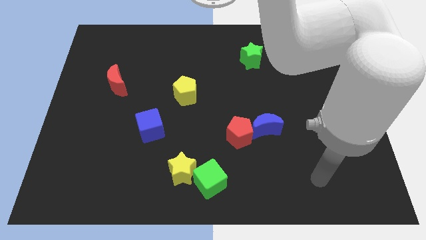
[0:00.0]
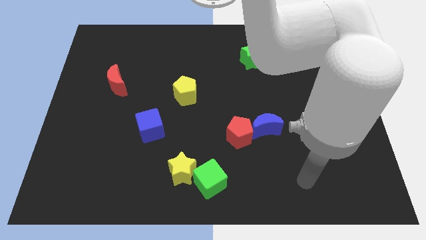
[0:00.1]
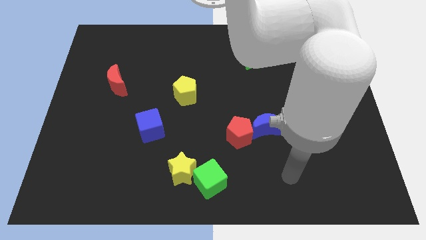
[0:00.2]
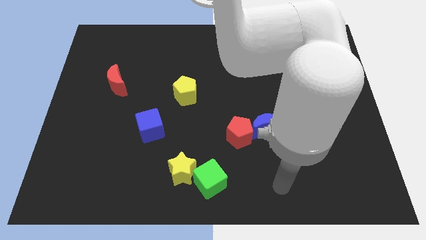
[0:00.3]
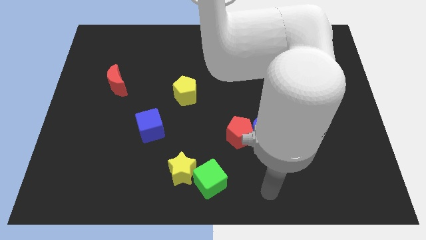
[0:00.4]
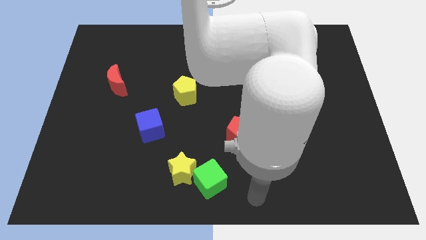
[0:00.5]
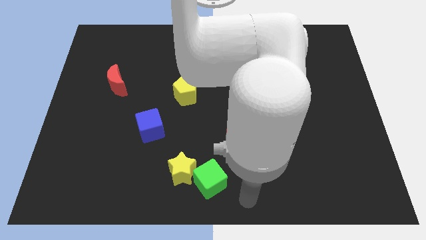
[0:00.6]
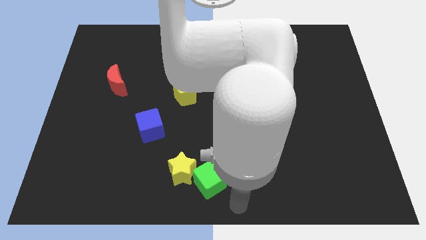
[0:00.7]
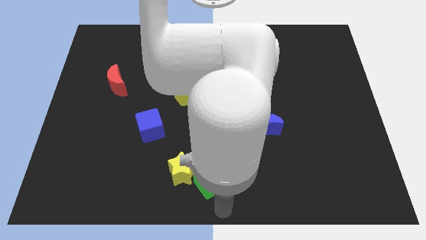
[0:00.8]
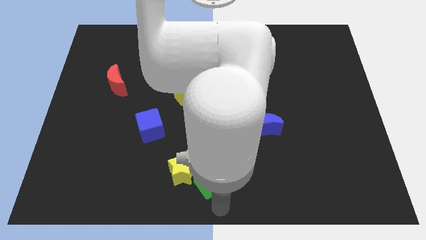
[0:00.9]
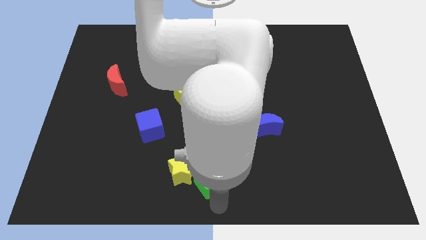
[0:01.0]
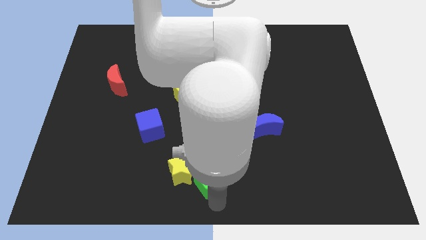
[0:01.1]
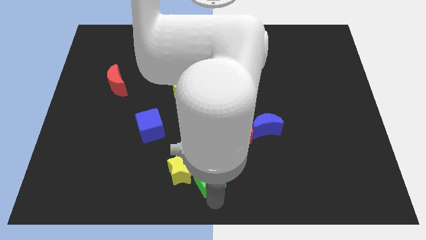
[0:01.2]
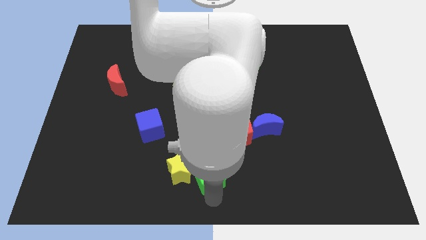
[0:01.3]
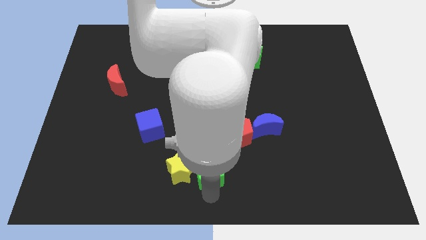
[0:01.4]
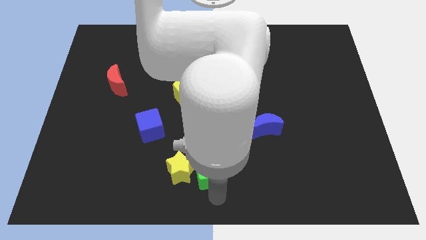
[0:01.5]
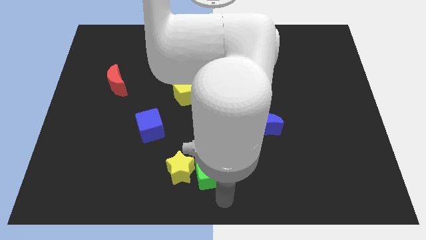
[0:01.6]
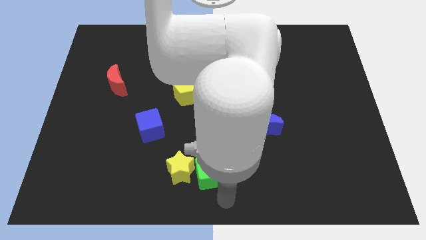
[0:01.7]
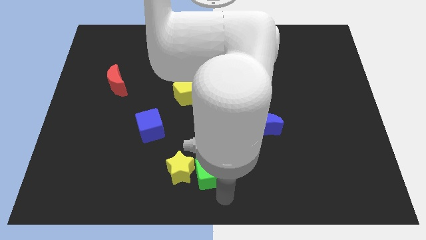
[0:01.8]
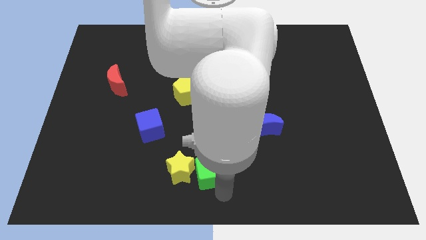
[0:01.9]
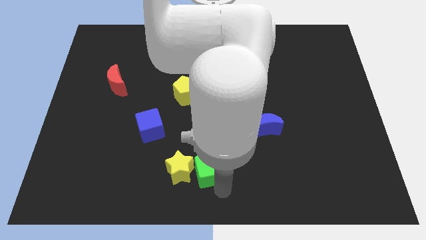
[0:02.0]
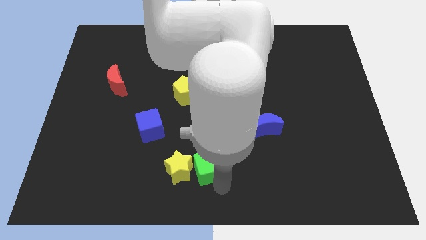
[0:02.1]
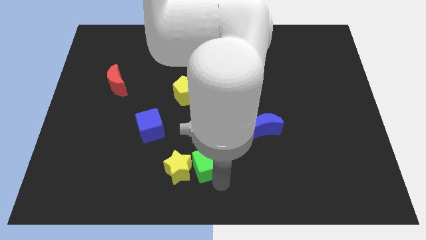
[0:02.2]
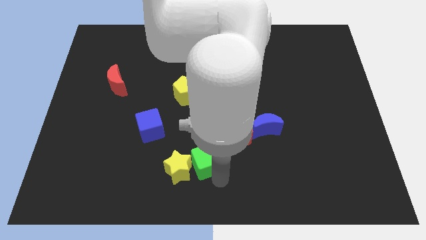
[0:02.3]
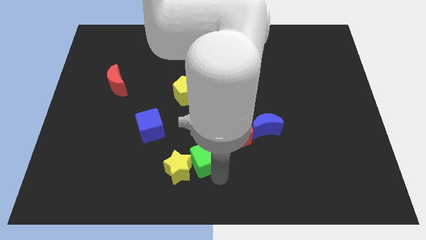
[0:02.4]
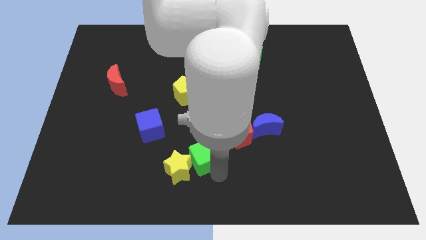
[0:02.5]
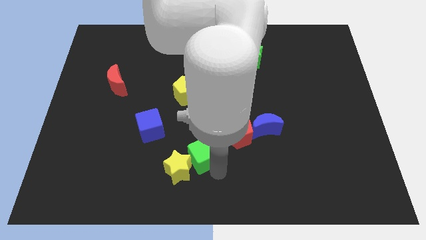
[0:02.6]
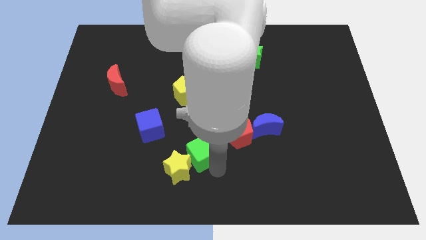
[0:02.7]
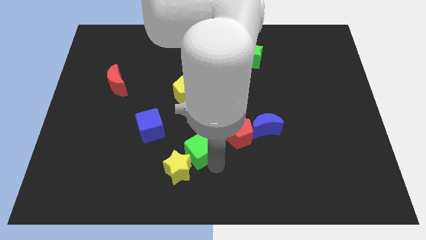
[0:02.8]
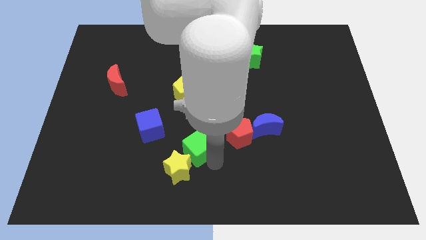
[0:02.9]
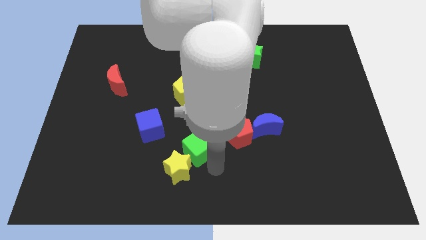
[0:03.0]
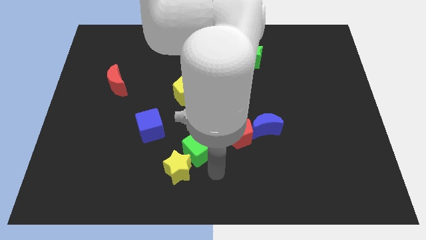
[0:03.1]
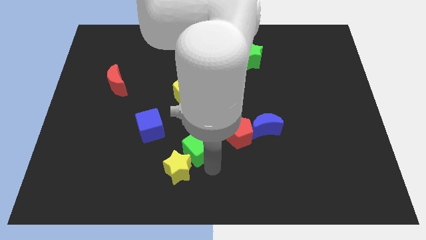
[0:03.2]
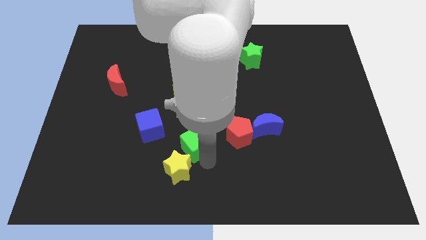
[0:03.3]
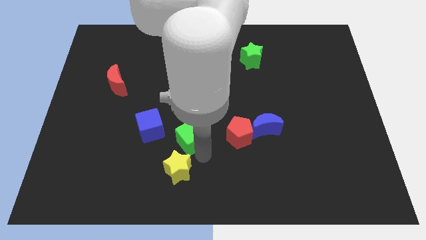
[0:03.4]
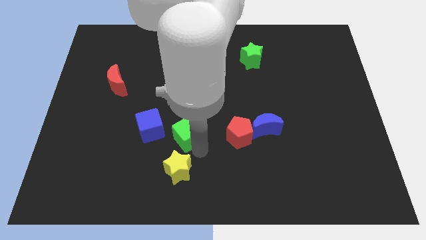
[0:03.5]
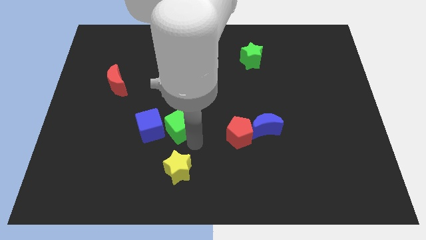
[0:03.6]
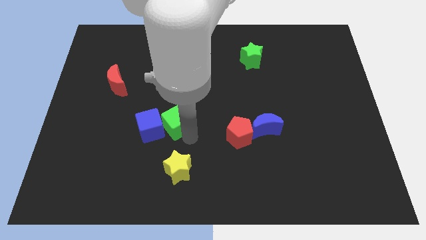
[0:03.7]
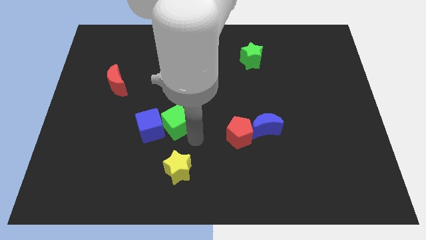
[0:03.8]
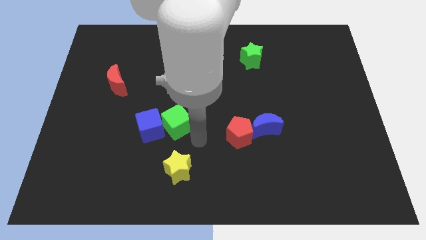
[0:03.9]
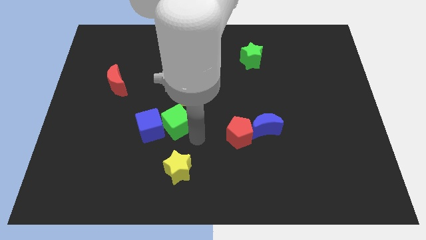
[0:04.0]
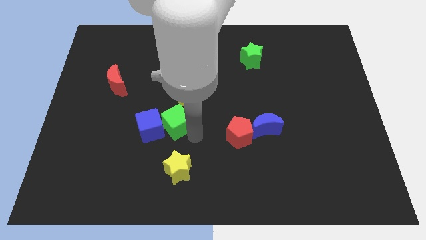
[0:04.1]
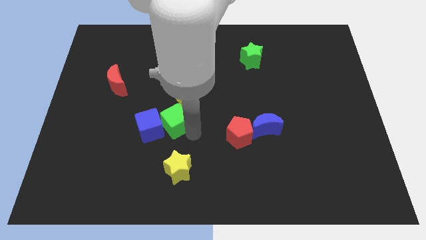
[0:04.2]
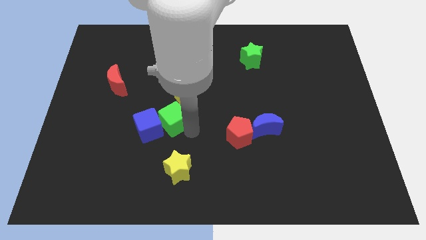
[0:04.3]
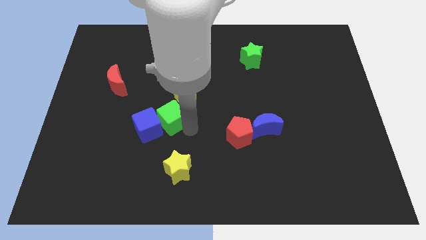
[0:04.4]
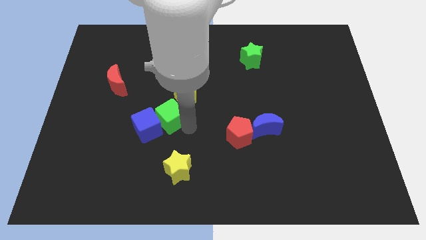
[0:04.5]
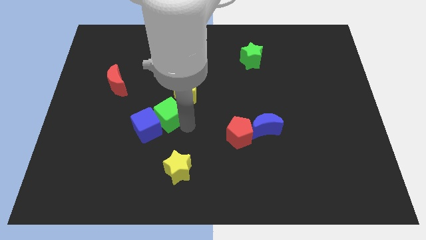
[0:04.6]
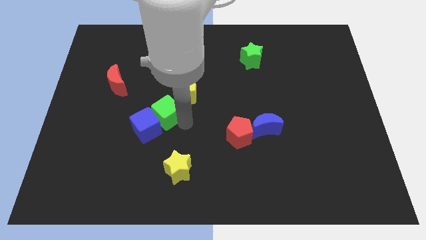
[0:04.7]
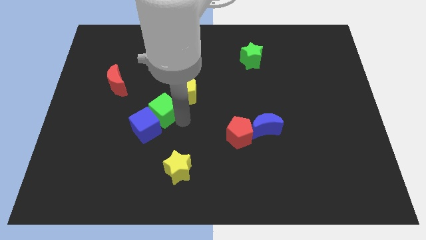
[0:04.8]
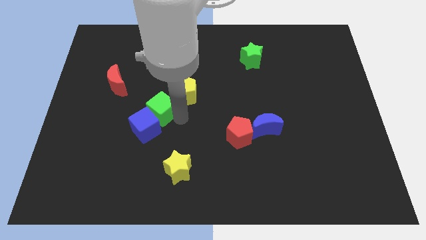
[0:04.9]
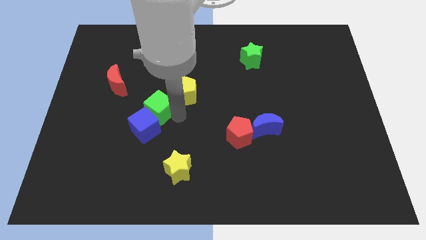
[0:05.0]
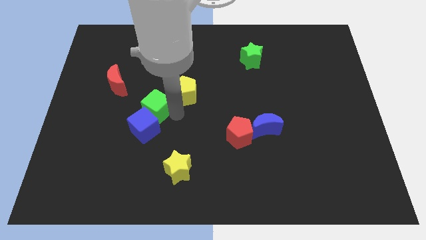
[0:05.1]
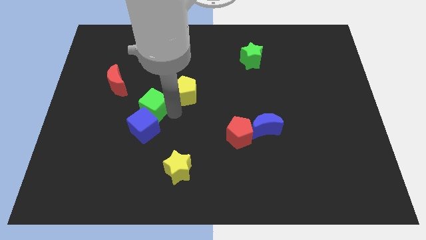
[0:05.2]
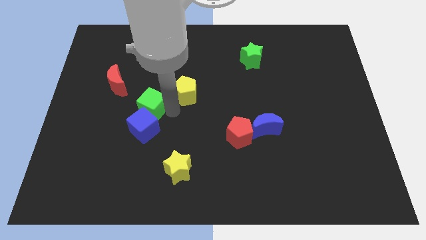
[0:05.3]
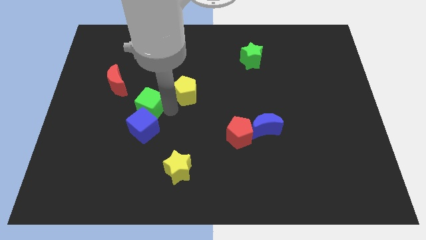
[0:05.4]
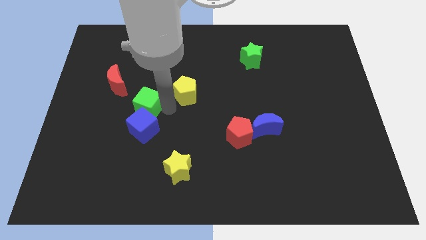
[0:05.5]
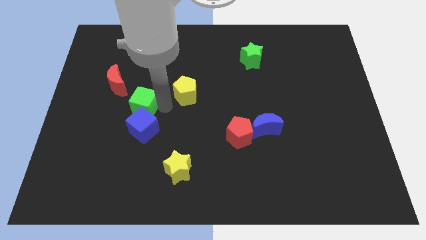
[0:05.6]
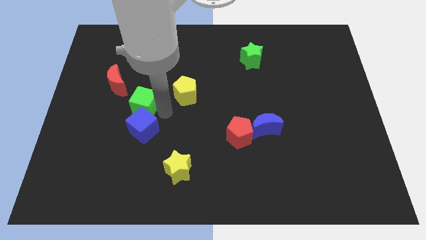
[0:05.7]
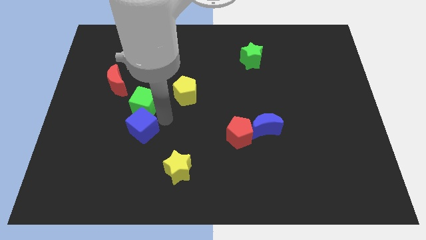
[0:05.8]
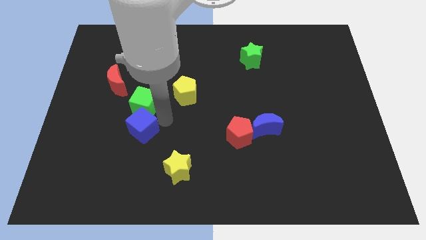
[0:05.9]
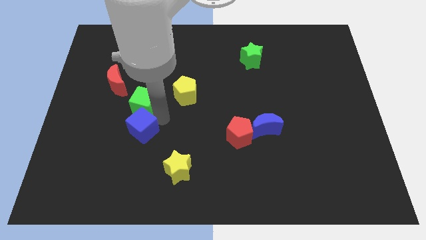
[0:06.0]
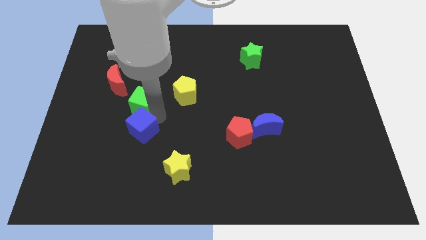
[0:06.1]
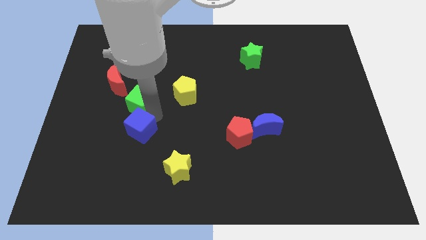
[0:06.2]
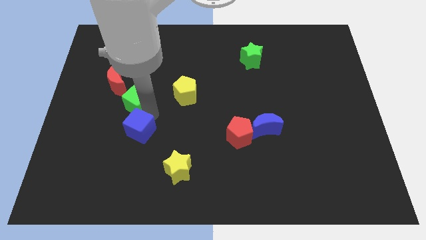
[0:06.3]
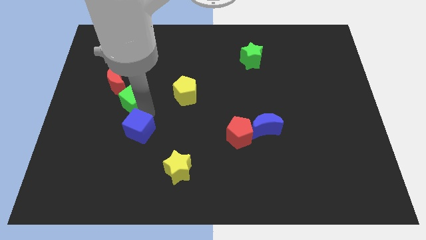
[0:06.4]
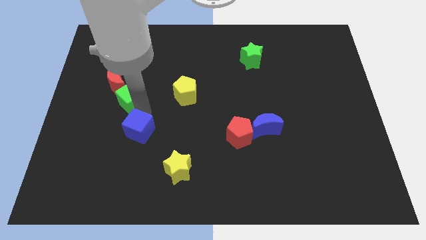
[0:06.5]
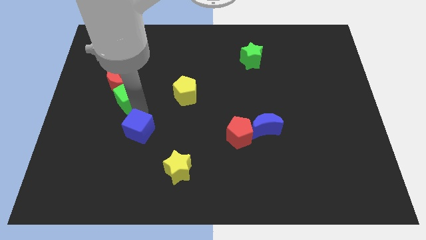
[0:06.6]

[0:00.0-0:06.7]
move the green cube next to the red moon

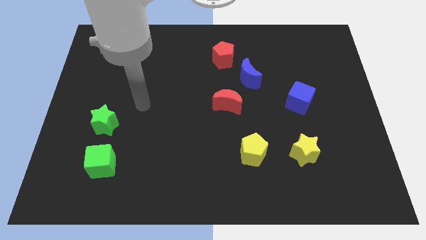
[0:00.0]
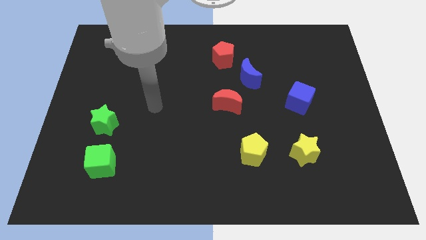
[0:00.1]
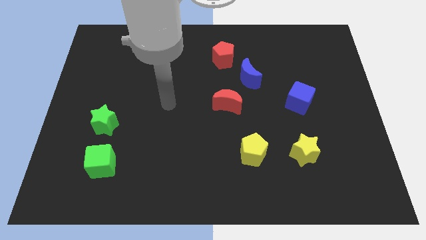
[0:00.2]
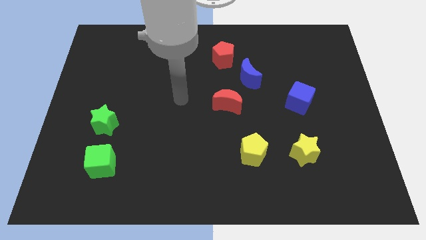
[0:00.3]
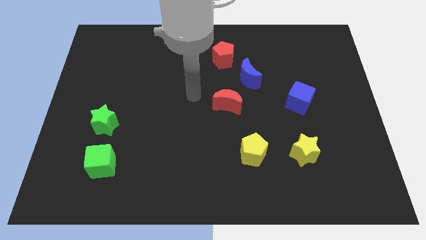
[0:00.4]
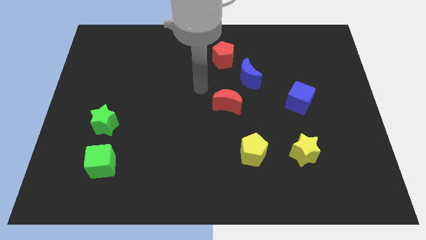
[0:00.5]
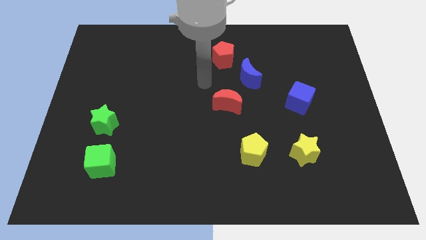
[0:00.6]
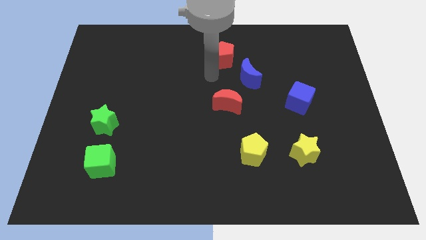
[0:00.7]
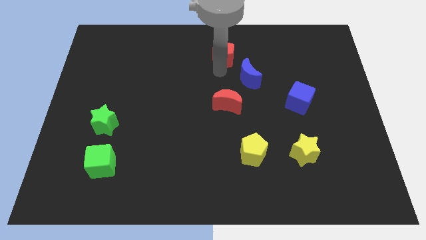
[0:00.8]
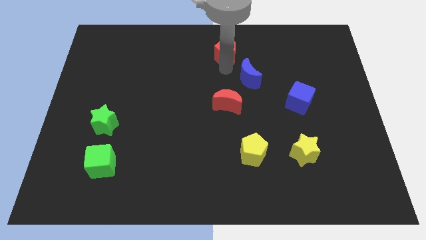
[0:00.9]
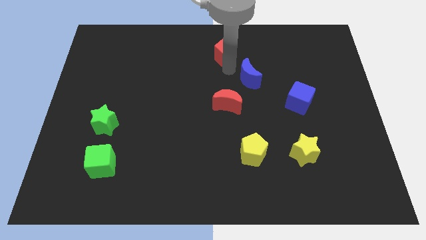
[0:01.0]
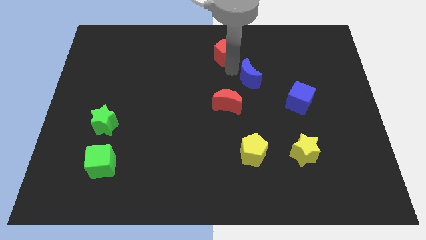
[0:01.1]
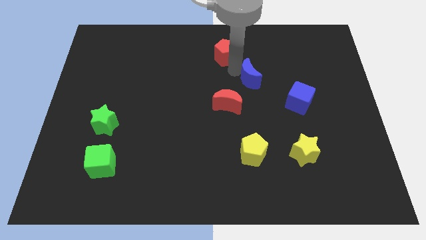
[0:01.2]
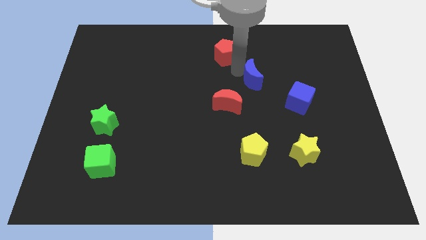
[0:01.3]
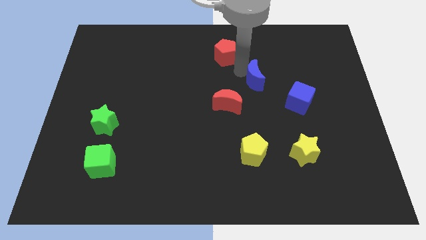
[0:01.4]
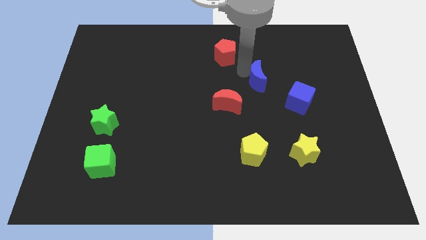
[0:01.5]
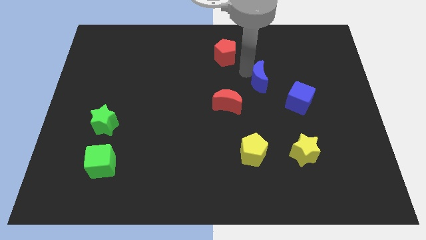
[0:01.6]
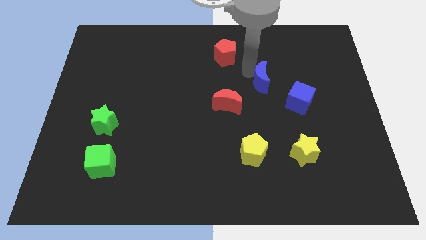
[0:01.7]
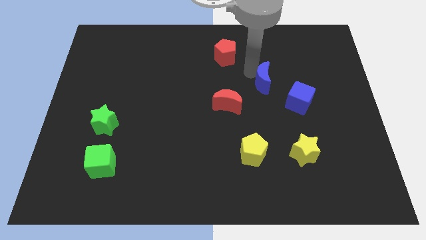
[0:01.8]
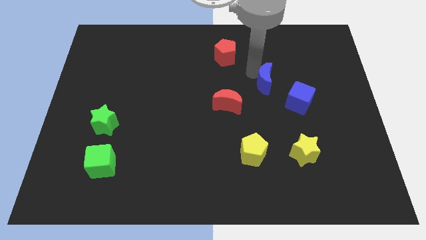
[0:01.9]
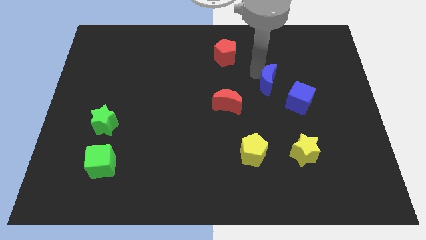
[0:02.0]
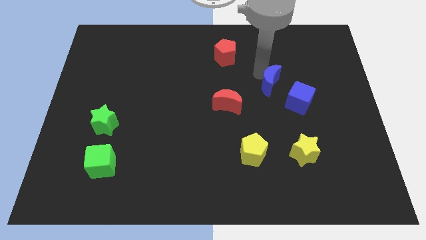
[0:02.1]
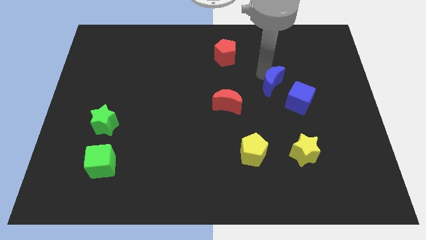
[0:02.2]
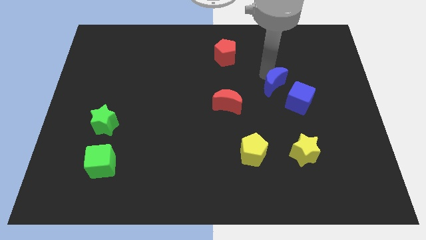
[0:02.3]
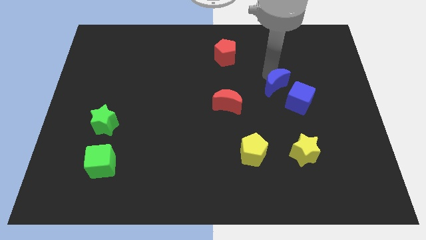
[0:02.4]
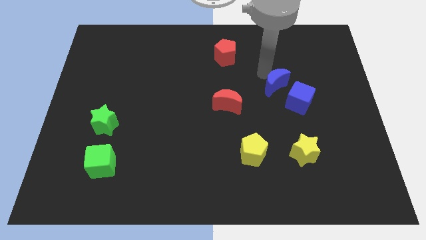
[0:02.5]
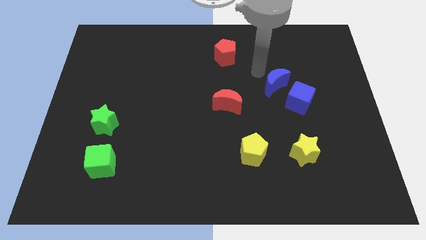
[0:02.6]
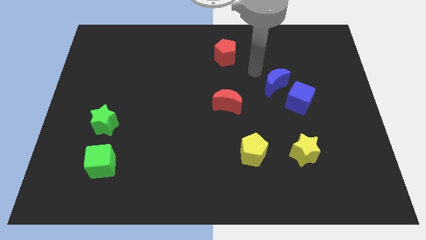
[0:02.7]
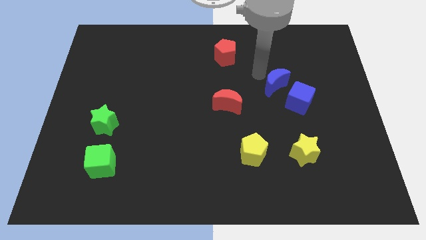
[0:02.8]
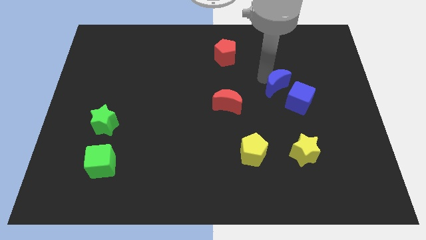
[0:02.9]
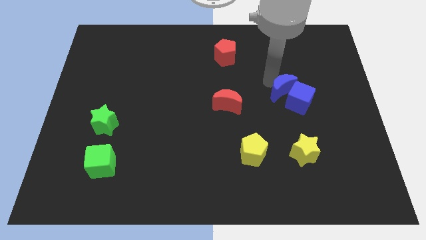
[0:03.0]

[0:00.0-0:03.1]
slide the blue moon next to the blue cube
